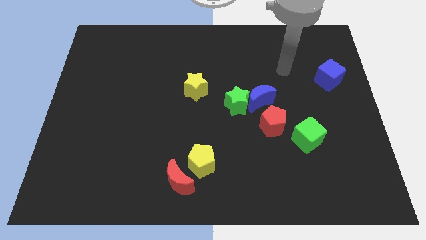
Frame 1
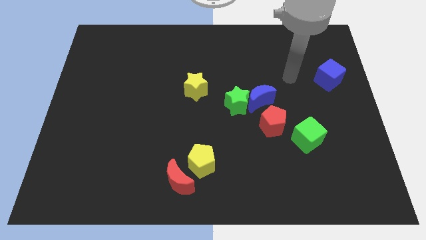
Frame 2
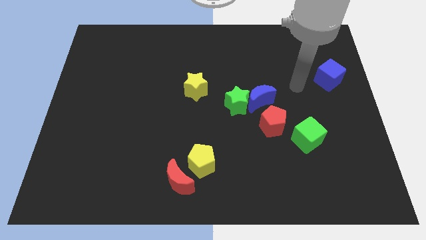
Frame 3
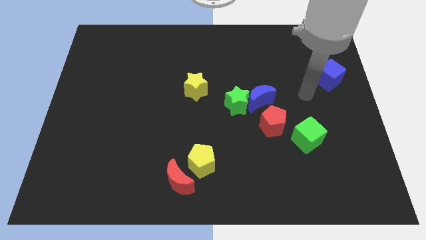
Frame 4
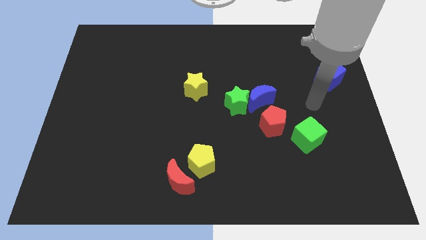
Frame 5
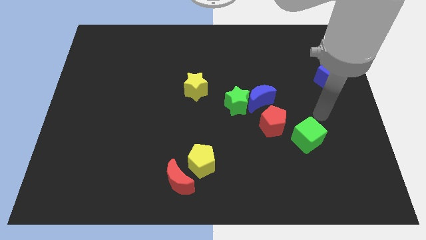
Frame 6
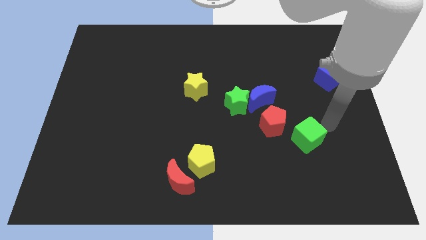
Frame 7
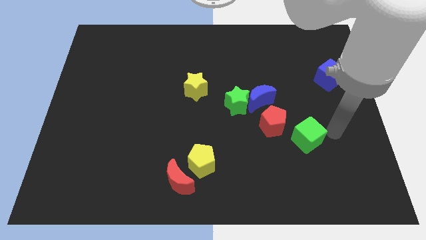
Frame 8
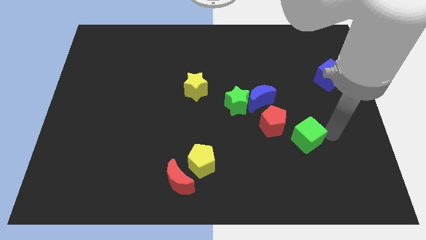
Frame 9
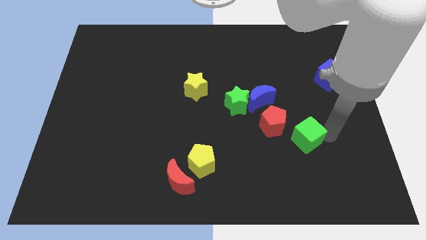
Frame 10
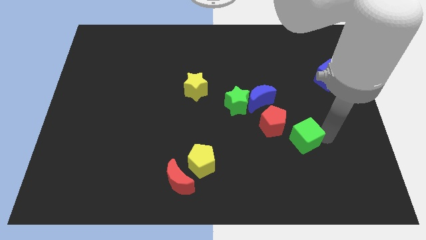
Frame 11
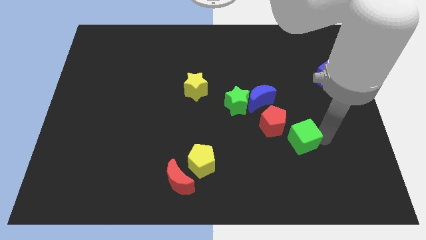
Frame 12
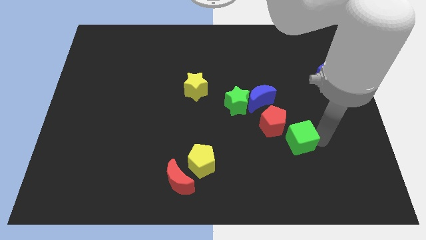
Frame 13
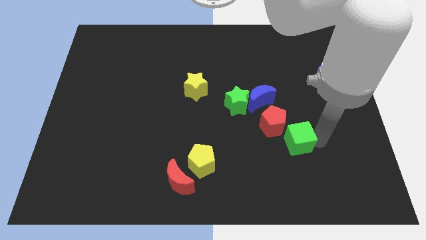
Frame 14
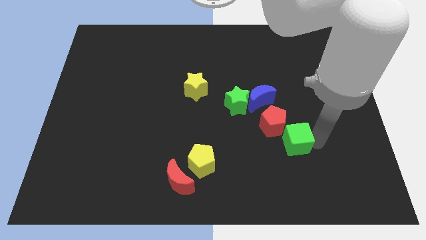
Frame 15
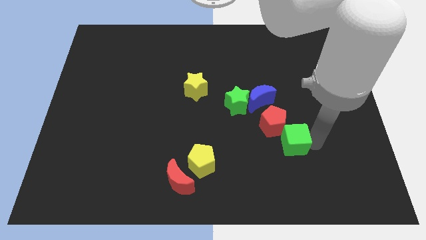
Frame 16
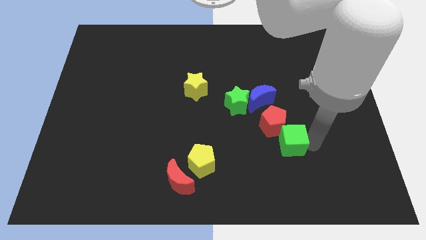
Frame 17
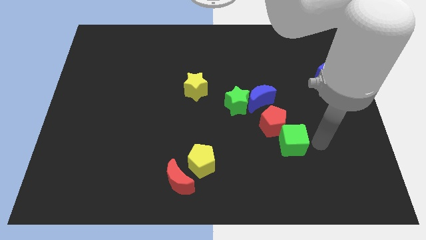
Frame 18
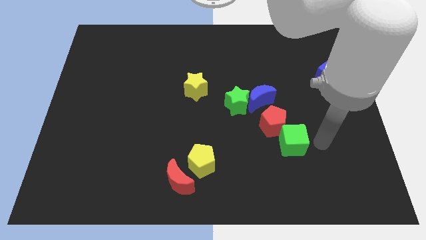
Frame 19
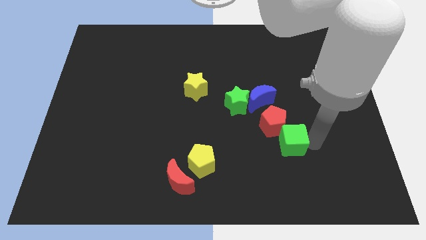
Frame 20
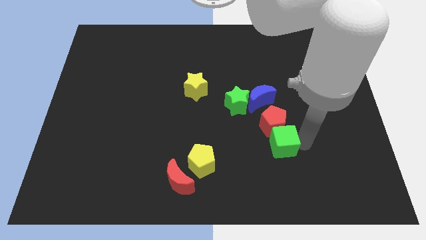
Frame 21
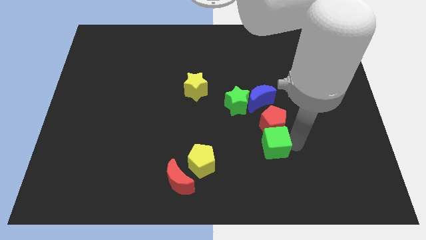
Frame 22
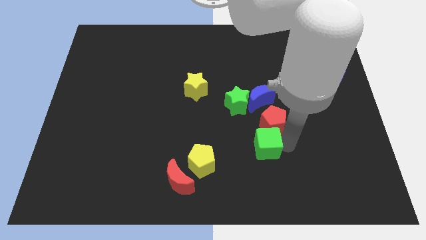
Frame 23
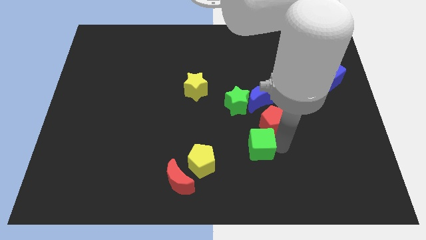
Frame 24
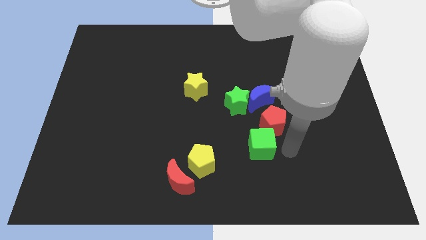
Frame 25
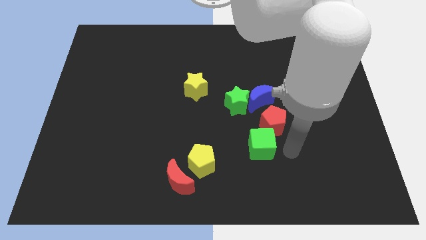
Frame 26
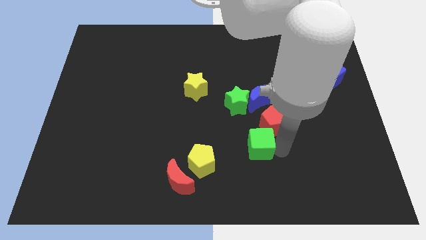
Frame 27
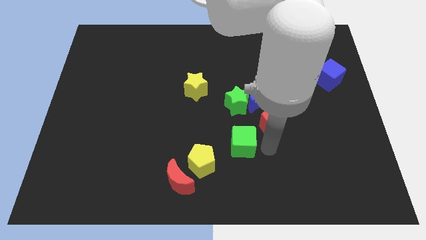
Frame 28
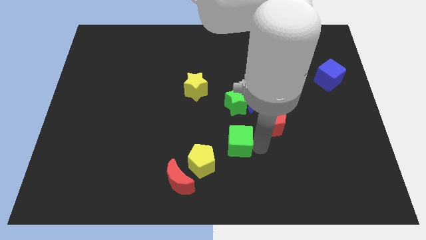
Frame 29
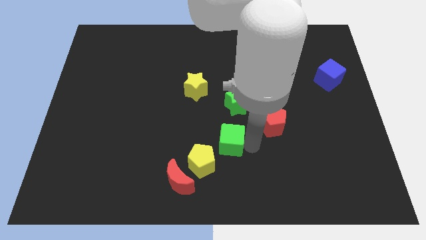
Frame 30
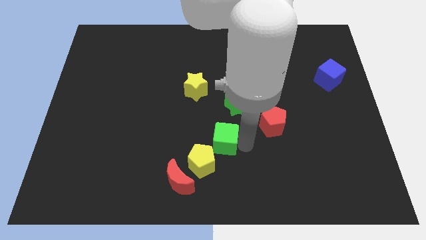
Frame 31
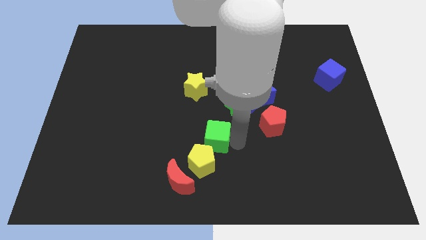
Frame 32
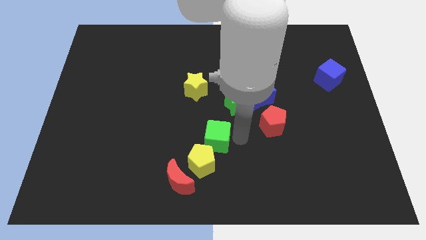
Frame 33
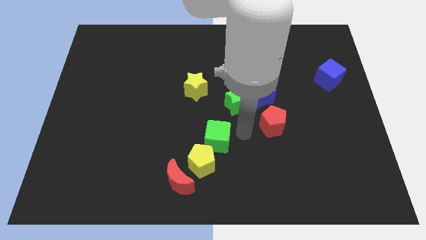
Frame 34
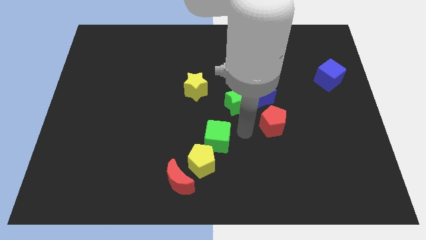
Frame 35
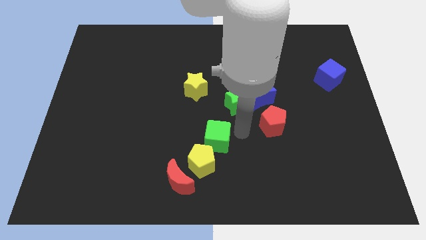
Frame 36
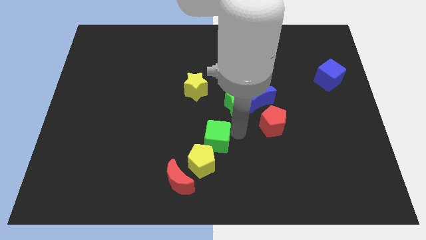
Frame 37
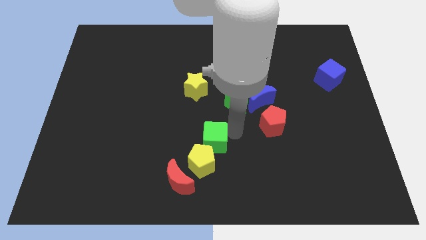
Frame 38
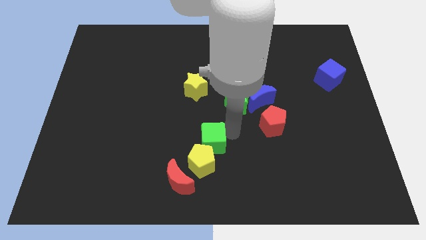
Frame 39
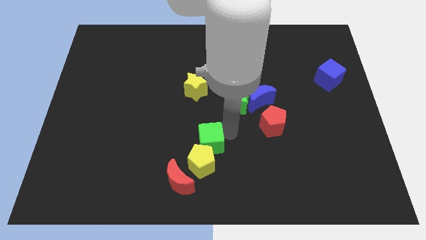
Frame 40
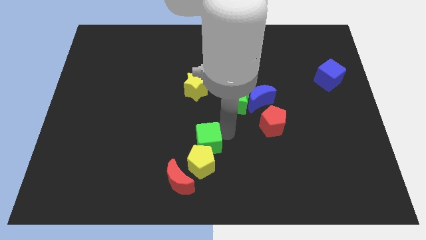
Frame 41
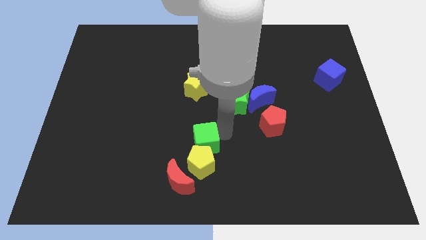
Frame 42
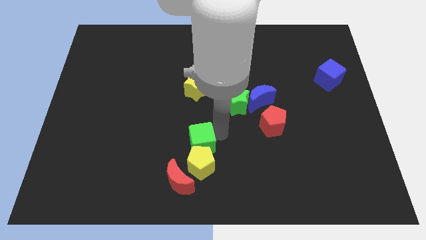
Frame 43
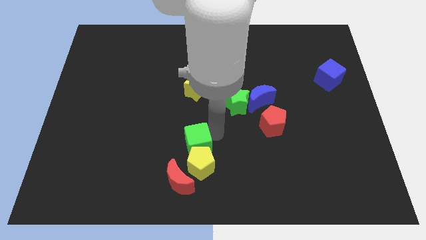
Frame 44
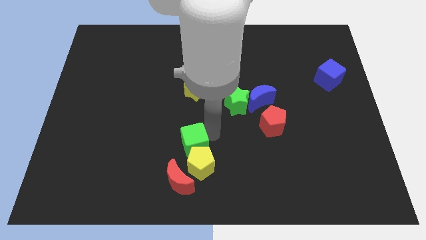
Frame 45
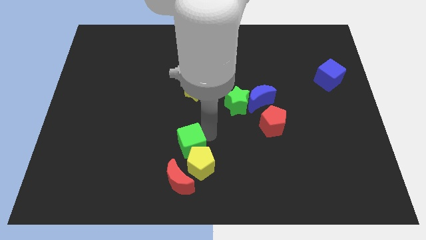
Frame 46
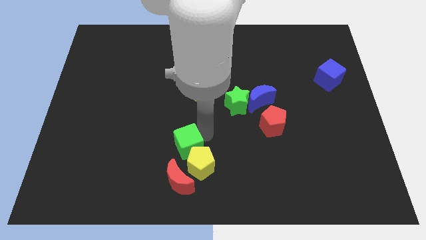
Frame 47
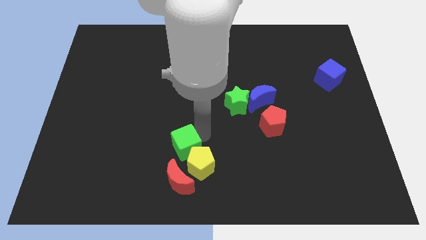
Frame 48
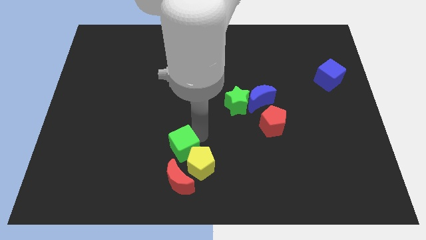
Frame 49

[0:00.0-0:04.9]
push the green cube left of the yellow pentagon

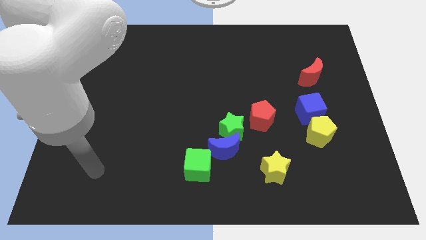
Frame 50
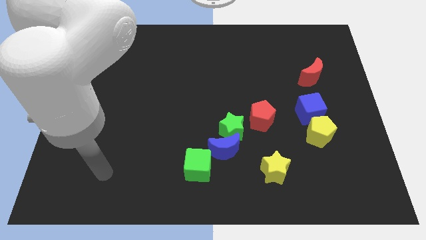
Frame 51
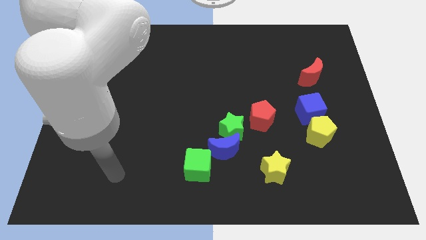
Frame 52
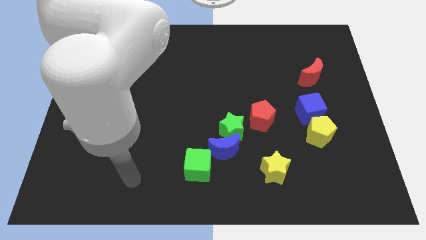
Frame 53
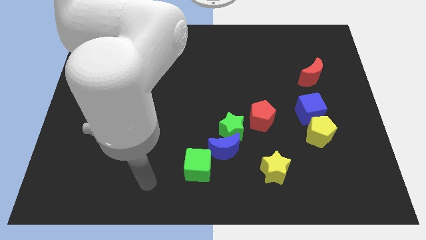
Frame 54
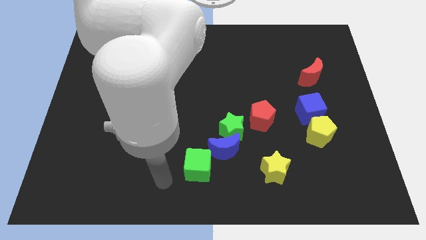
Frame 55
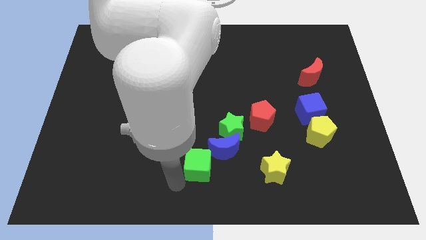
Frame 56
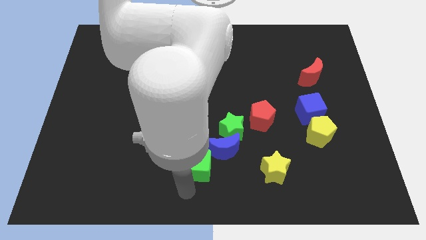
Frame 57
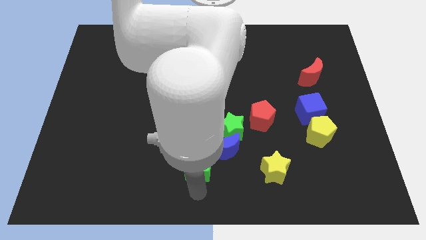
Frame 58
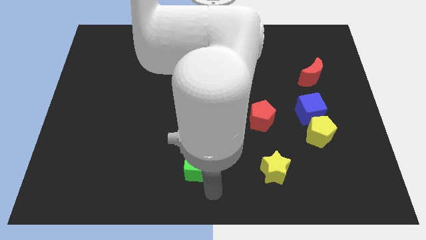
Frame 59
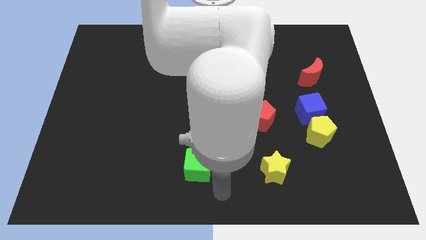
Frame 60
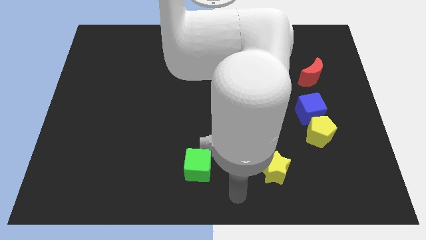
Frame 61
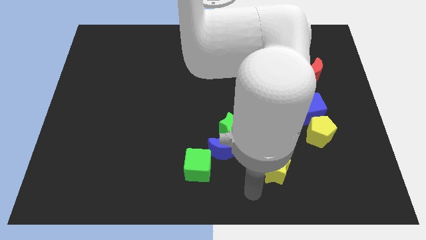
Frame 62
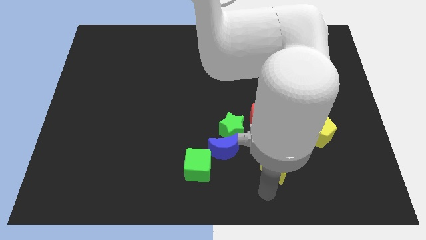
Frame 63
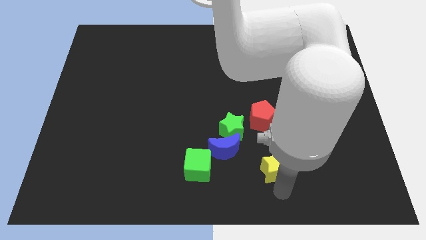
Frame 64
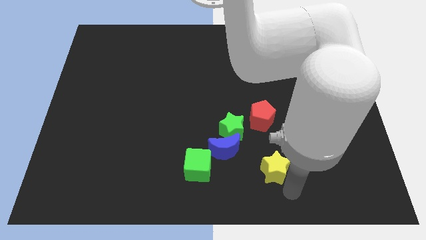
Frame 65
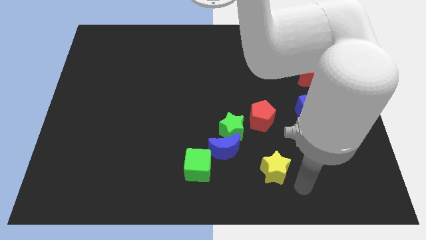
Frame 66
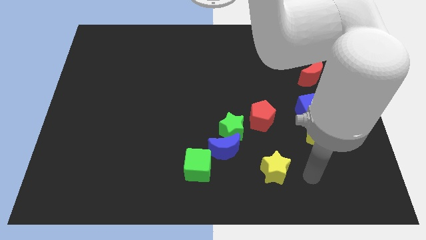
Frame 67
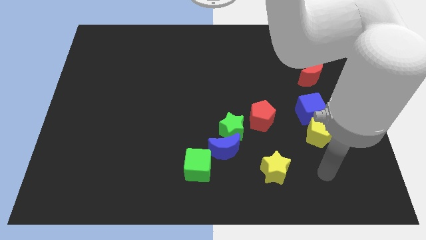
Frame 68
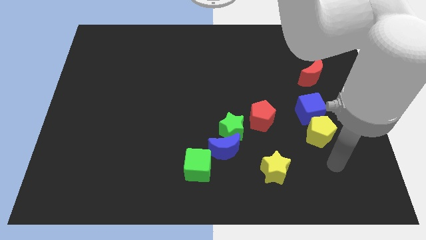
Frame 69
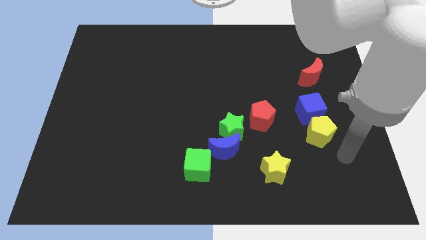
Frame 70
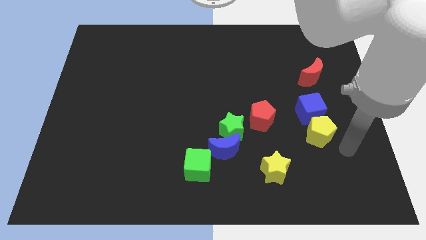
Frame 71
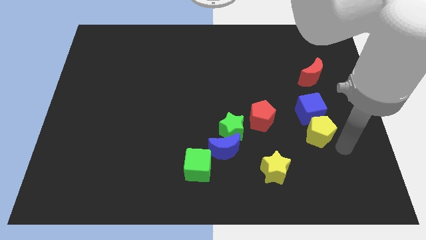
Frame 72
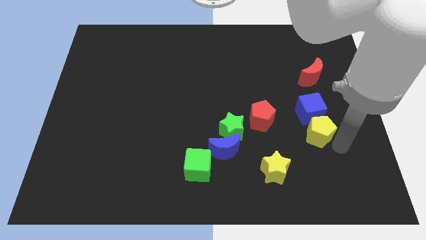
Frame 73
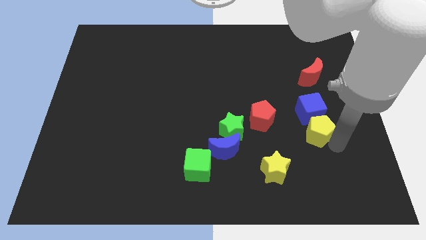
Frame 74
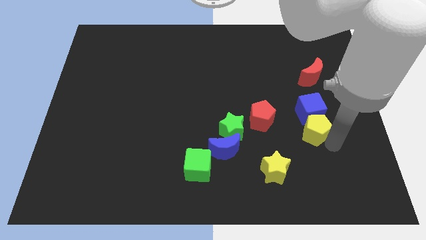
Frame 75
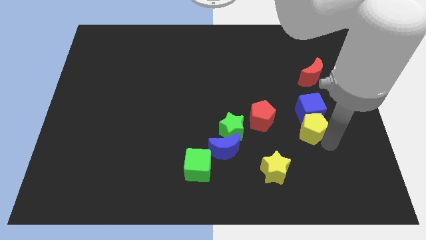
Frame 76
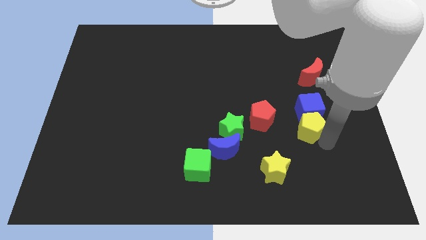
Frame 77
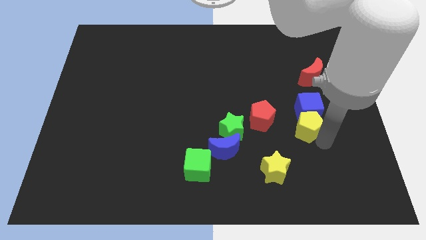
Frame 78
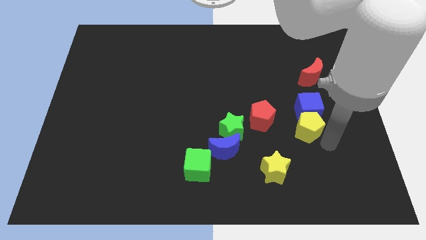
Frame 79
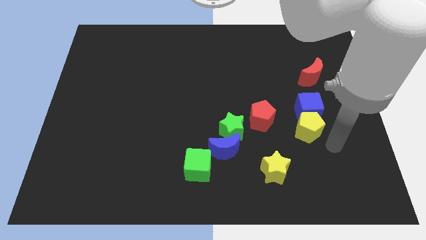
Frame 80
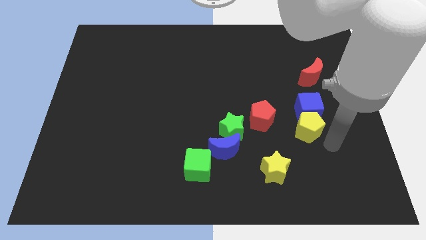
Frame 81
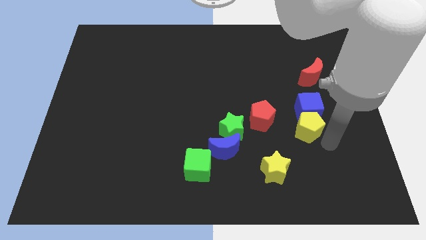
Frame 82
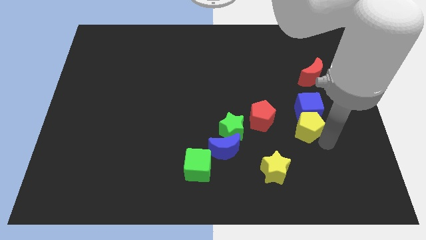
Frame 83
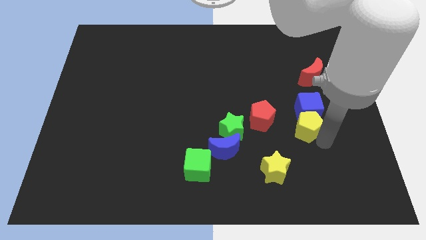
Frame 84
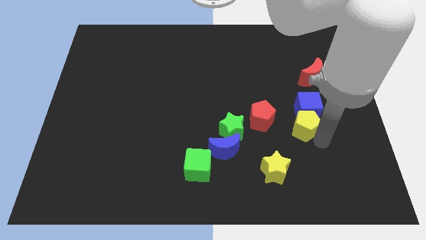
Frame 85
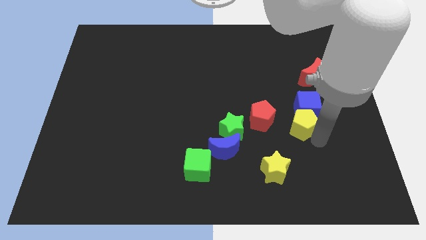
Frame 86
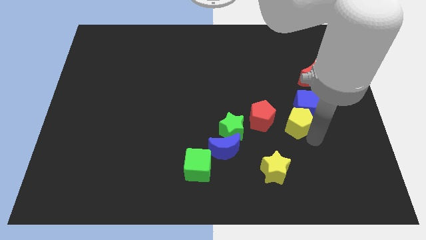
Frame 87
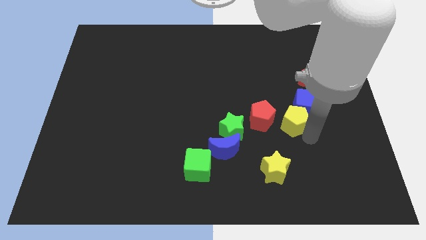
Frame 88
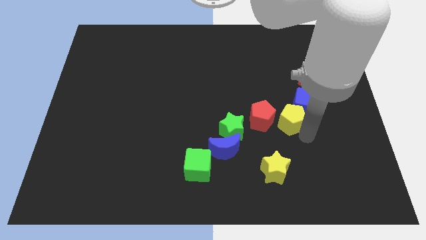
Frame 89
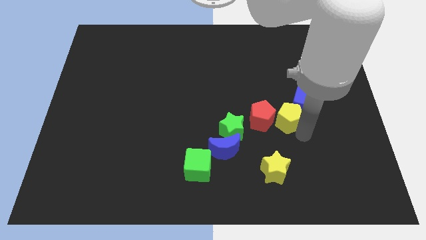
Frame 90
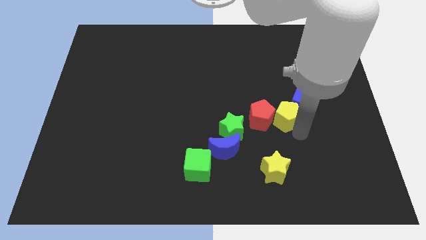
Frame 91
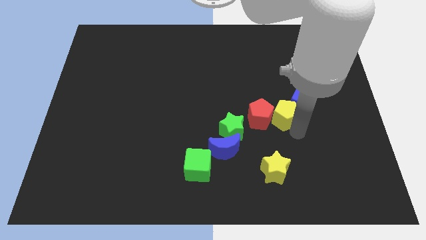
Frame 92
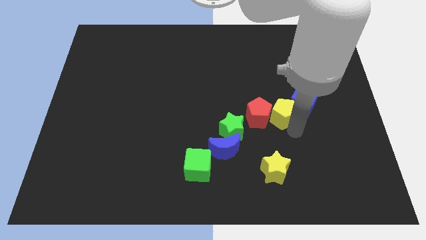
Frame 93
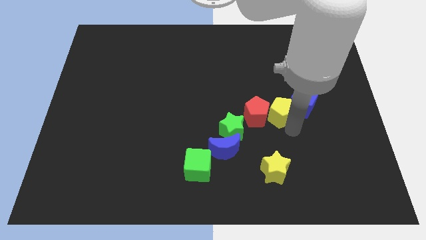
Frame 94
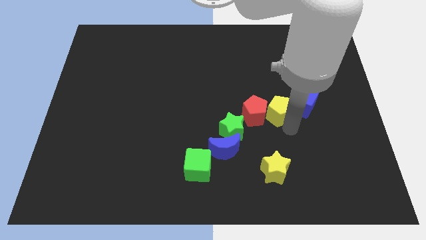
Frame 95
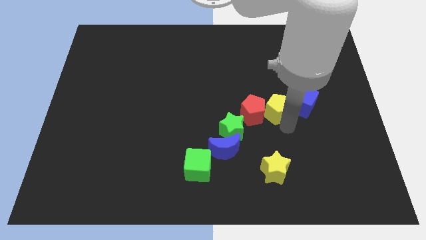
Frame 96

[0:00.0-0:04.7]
move the yellow pentagon to the top right of the green star
